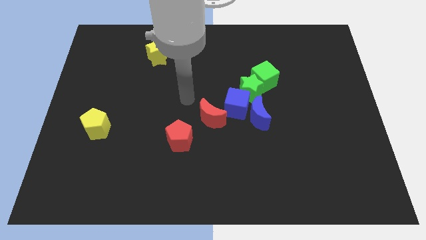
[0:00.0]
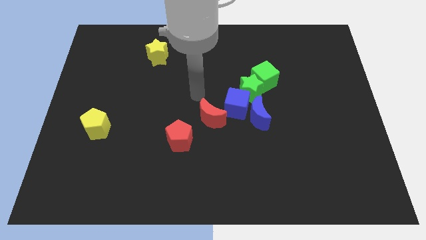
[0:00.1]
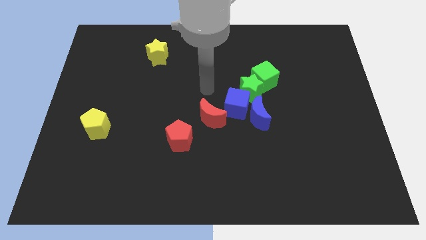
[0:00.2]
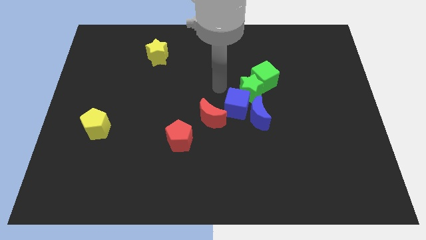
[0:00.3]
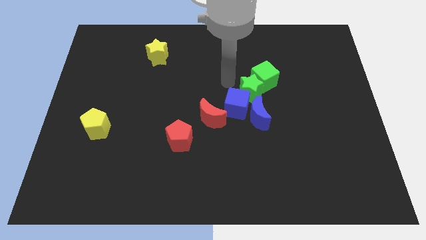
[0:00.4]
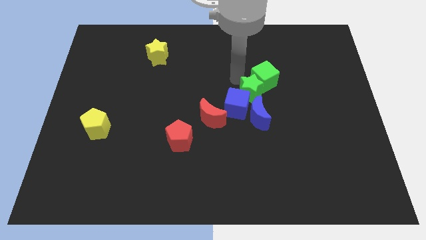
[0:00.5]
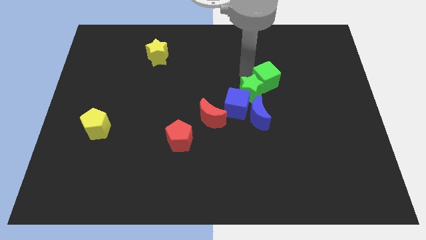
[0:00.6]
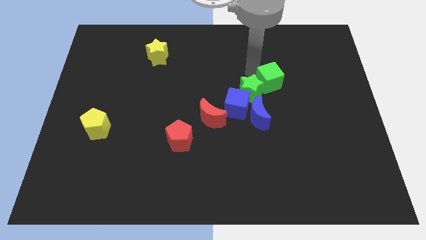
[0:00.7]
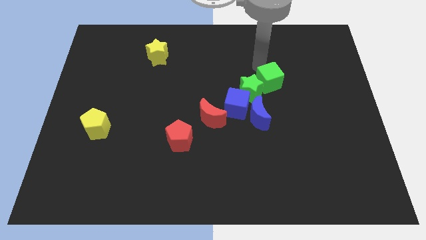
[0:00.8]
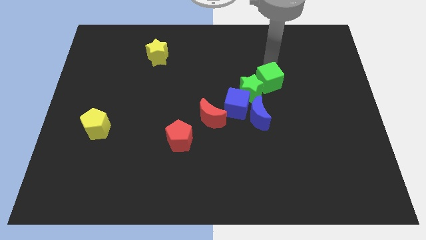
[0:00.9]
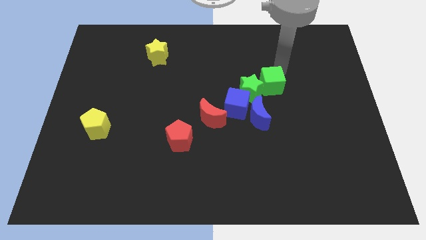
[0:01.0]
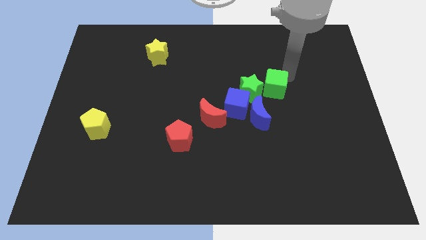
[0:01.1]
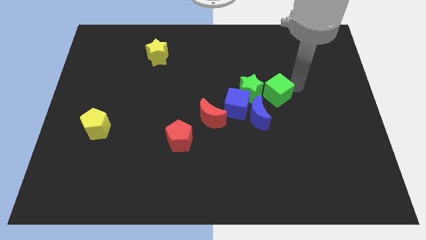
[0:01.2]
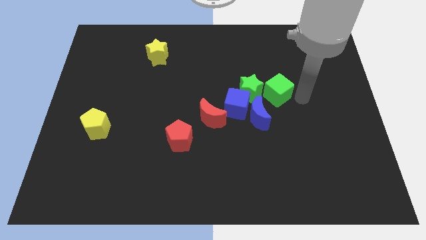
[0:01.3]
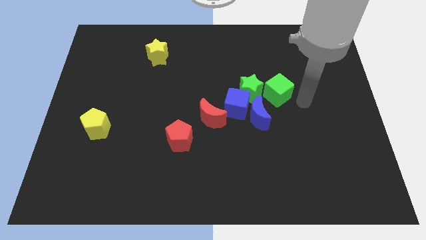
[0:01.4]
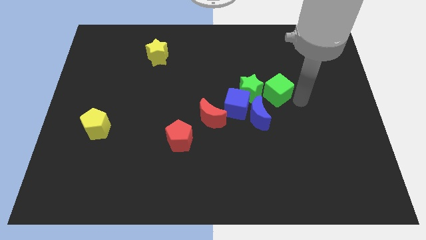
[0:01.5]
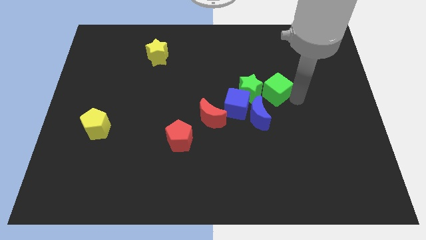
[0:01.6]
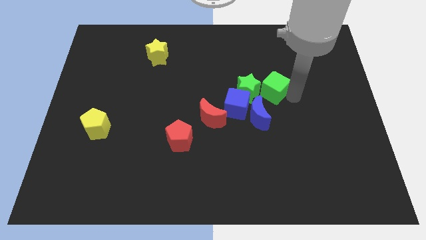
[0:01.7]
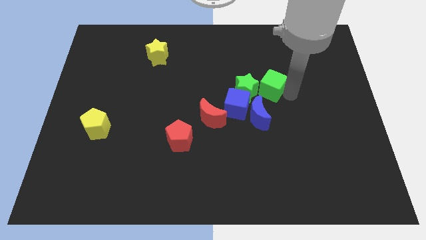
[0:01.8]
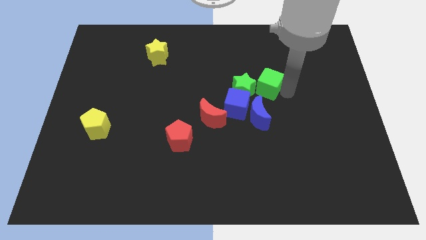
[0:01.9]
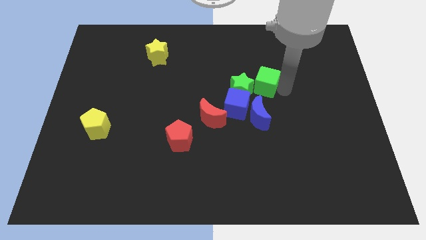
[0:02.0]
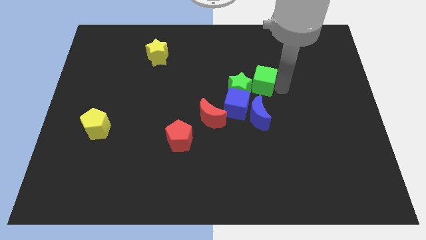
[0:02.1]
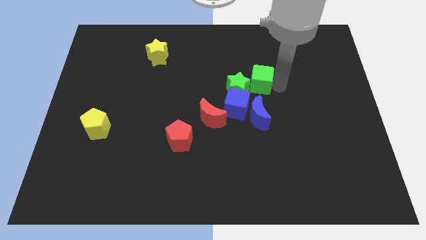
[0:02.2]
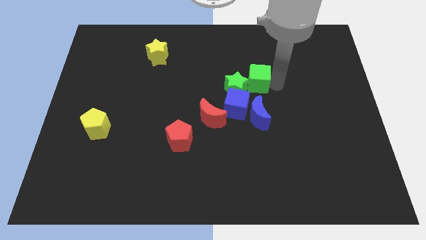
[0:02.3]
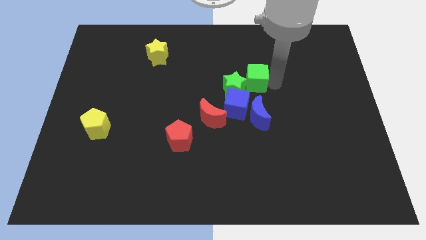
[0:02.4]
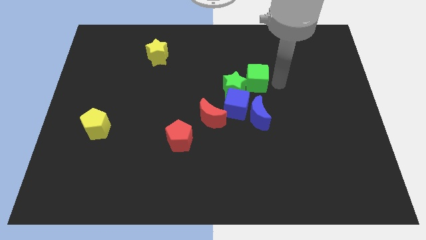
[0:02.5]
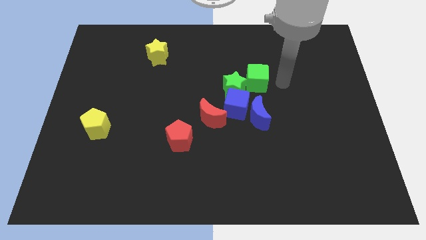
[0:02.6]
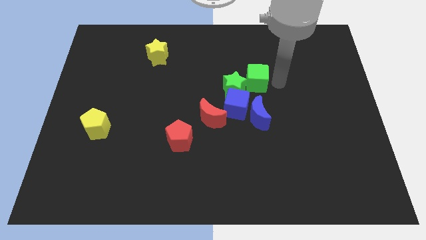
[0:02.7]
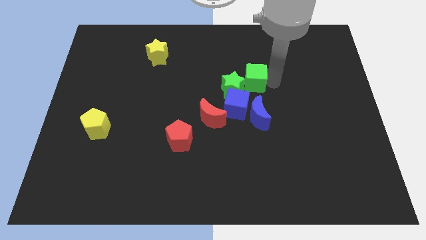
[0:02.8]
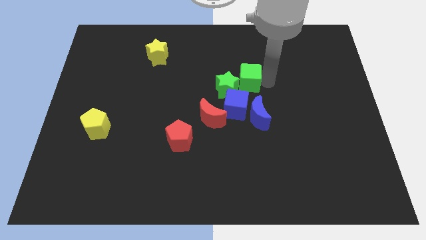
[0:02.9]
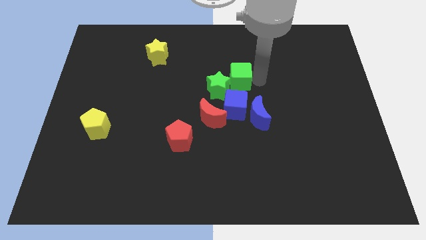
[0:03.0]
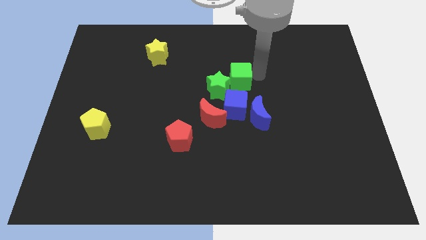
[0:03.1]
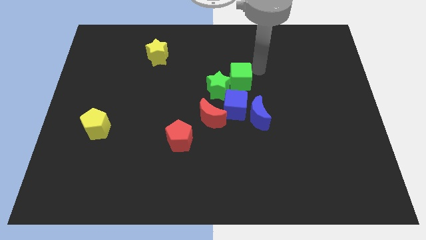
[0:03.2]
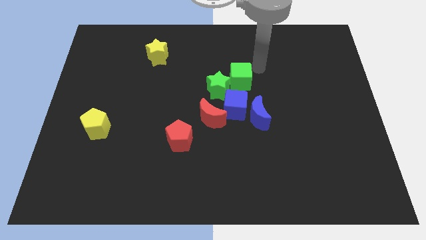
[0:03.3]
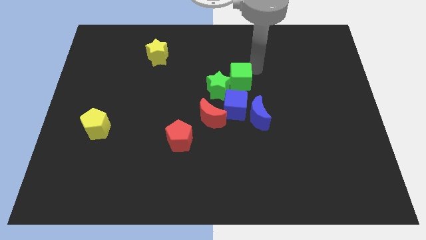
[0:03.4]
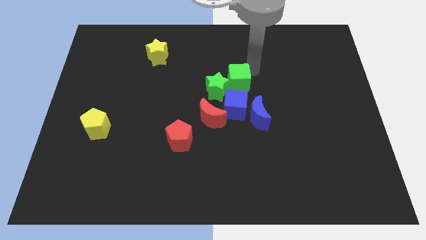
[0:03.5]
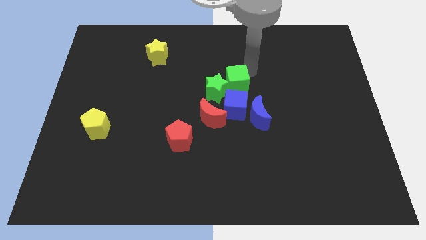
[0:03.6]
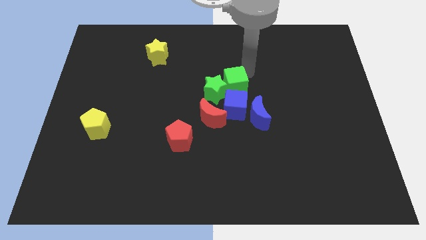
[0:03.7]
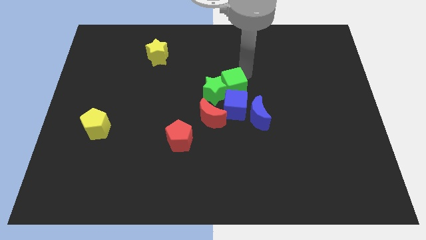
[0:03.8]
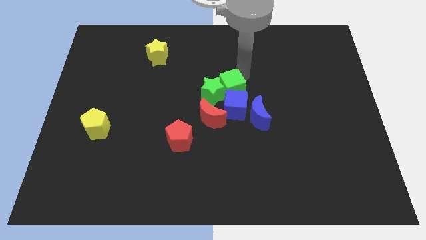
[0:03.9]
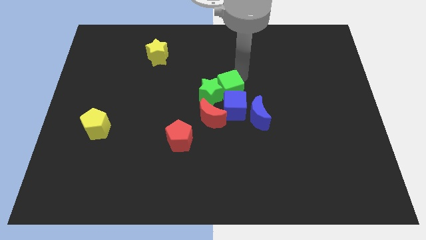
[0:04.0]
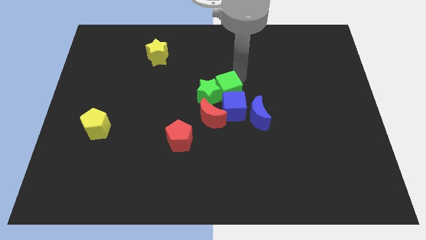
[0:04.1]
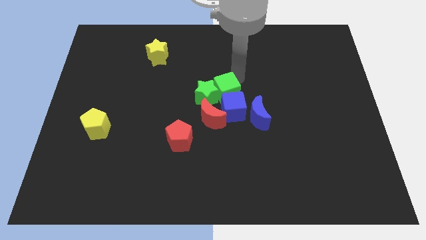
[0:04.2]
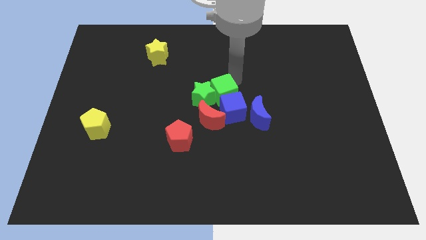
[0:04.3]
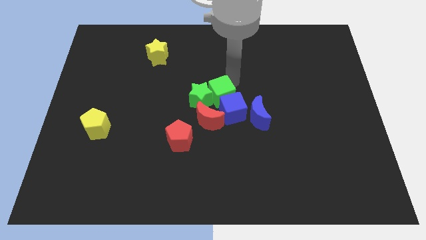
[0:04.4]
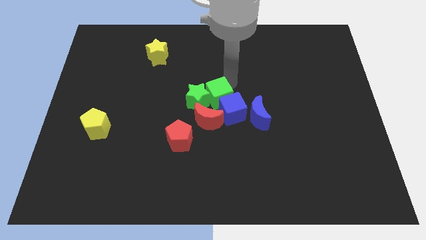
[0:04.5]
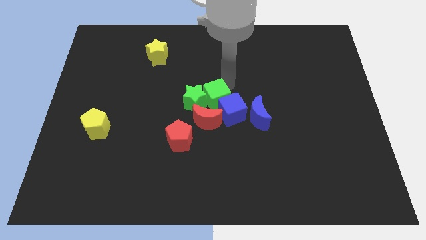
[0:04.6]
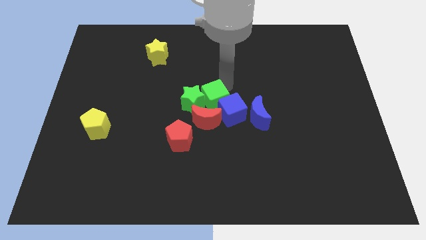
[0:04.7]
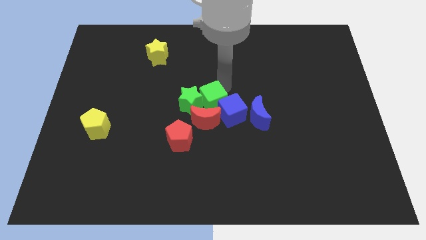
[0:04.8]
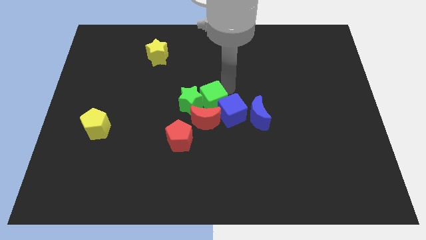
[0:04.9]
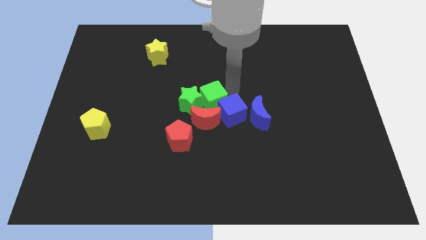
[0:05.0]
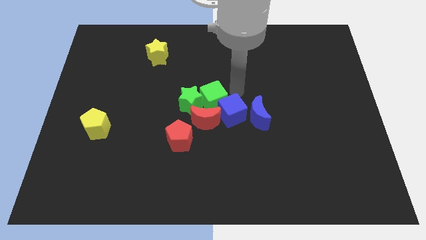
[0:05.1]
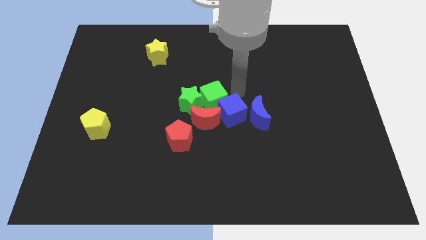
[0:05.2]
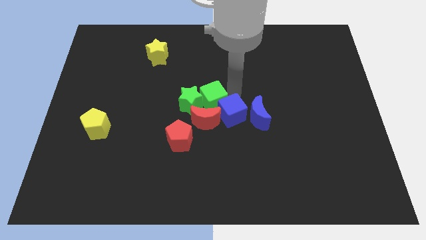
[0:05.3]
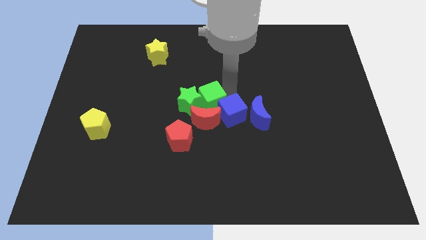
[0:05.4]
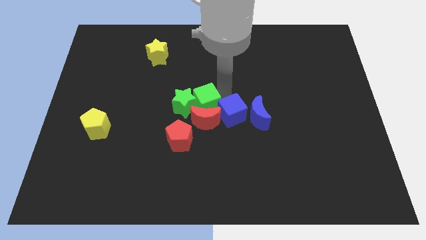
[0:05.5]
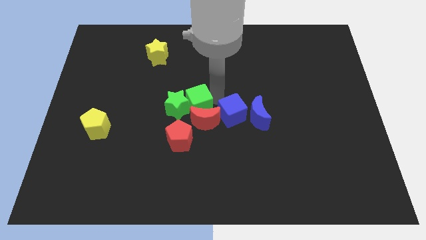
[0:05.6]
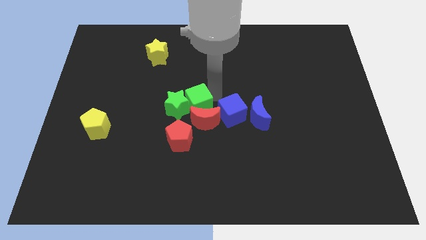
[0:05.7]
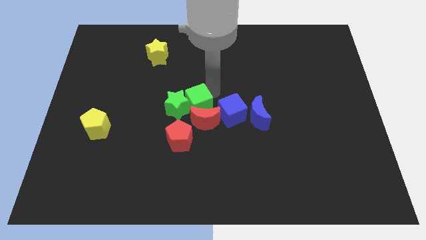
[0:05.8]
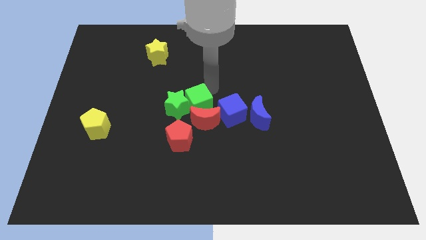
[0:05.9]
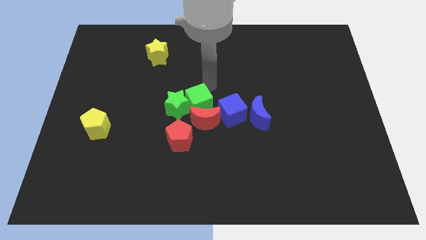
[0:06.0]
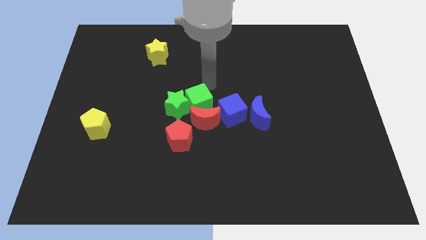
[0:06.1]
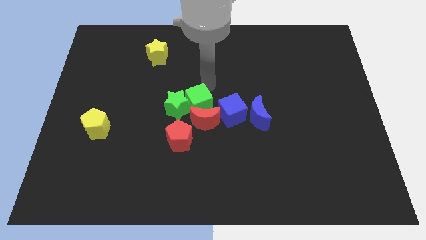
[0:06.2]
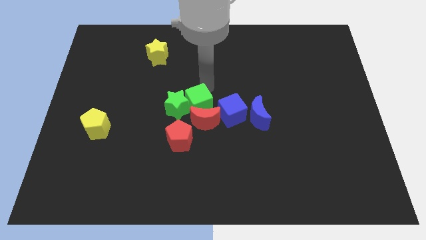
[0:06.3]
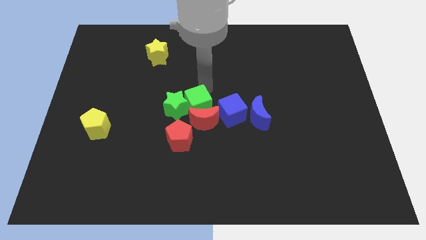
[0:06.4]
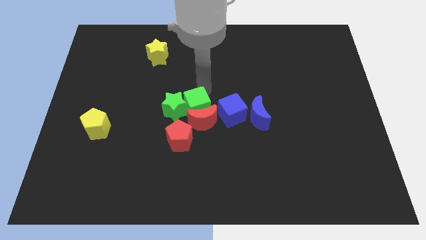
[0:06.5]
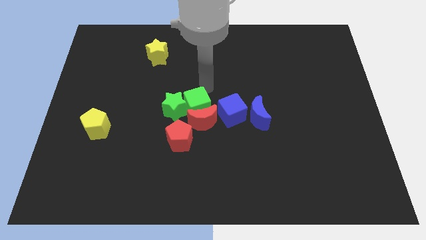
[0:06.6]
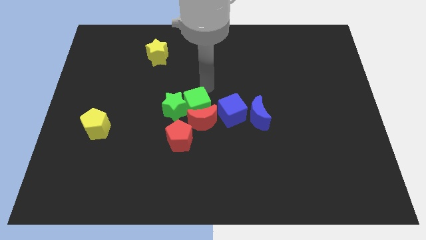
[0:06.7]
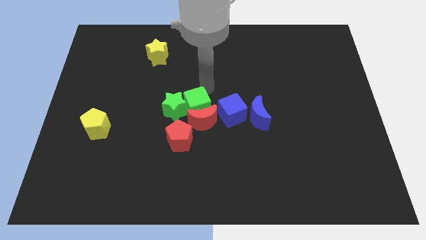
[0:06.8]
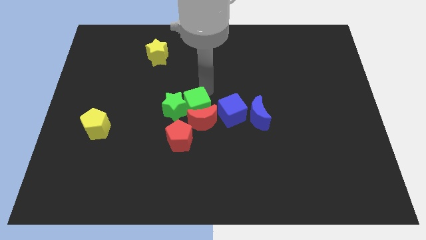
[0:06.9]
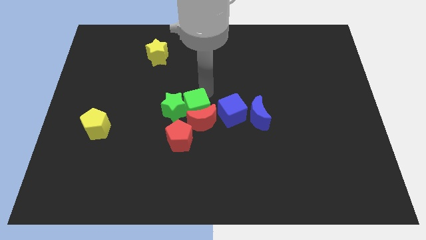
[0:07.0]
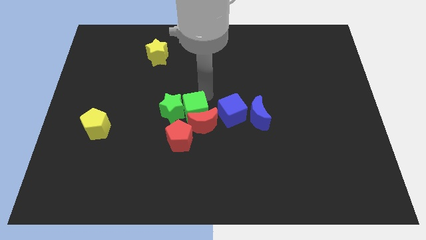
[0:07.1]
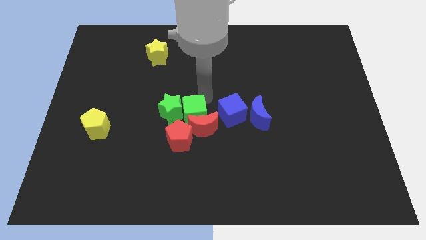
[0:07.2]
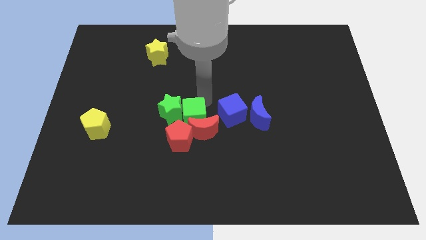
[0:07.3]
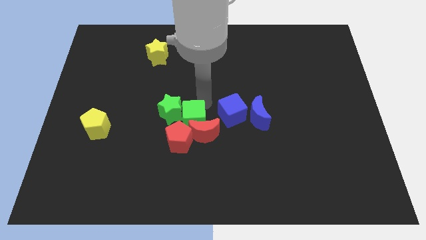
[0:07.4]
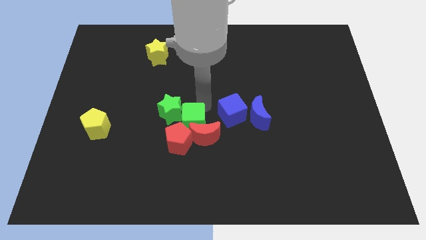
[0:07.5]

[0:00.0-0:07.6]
move the green cube to the red pentagon

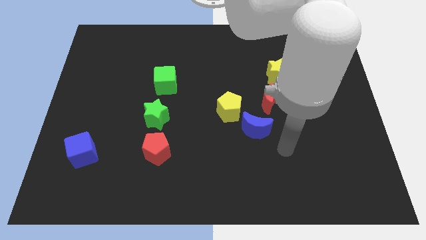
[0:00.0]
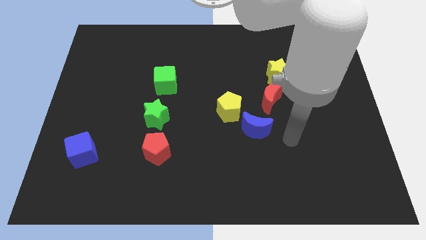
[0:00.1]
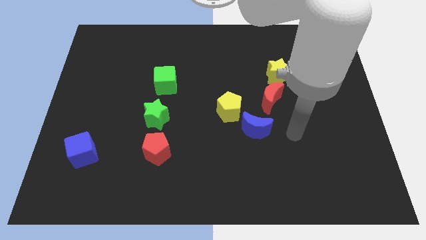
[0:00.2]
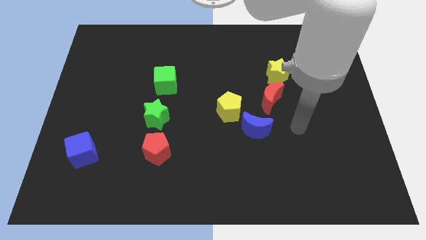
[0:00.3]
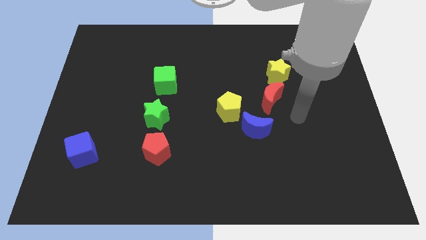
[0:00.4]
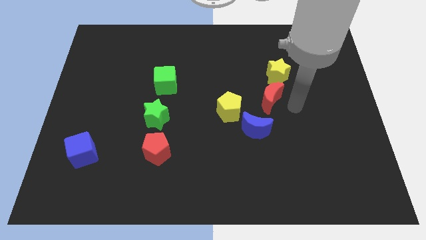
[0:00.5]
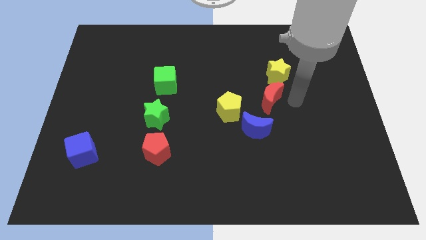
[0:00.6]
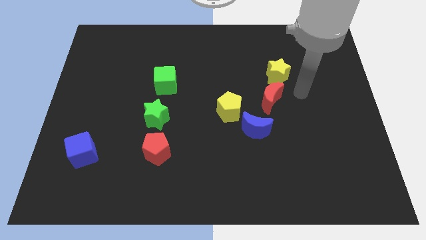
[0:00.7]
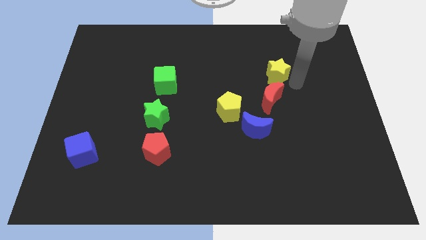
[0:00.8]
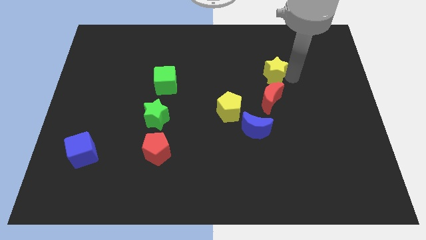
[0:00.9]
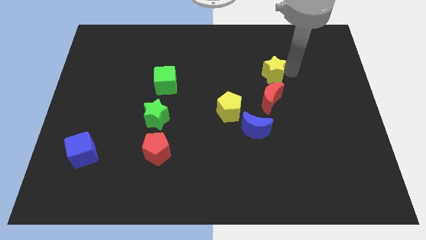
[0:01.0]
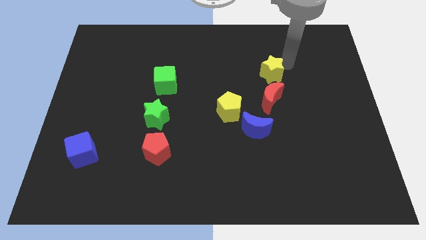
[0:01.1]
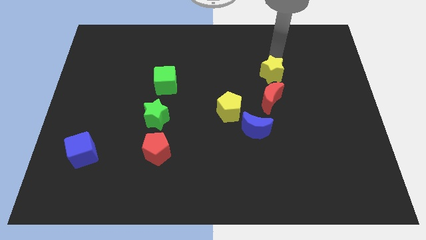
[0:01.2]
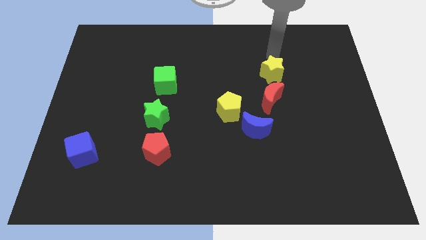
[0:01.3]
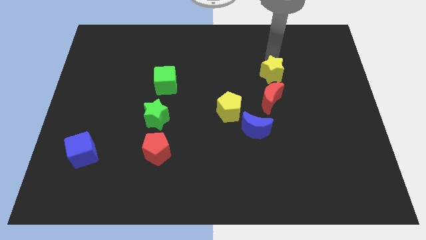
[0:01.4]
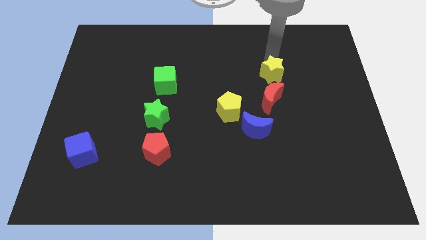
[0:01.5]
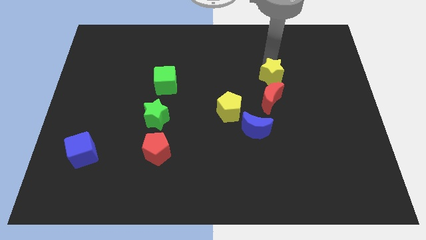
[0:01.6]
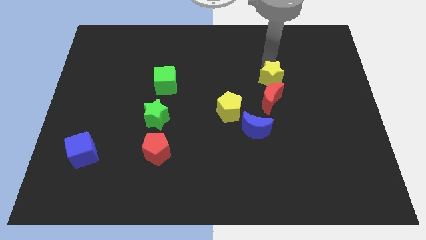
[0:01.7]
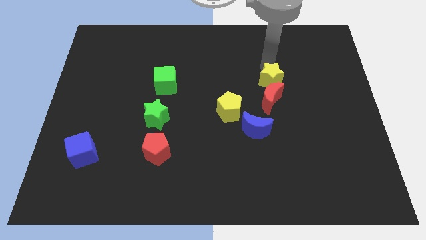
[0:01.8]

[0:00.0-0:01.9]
slide the yellow star to the red moon
